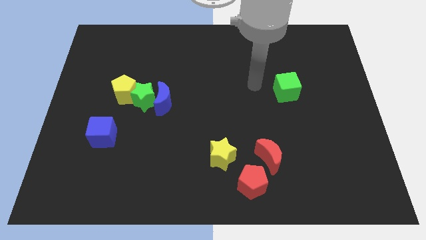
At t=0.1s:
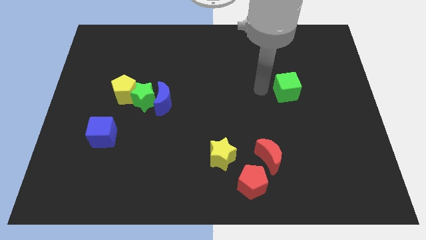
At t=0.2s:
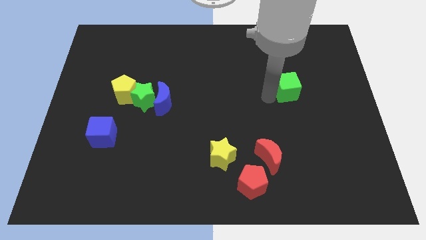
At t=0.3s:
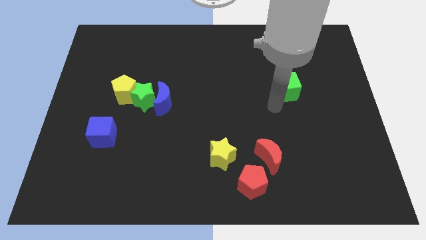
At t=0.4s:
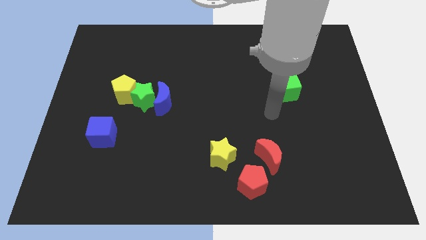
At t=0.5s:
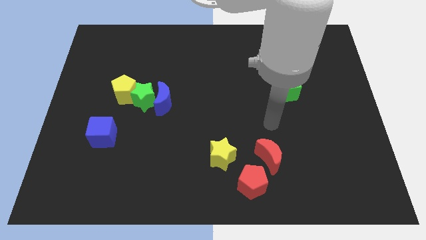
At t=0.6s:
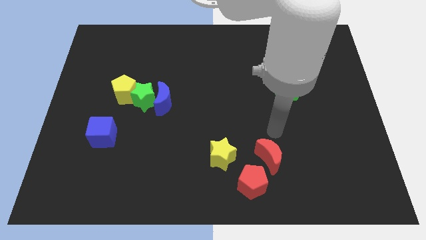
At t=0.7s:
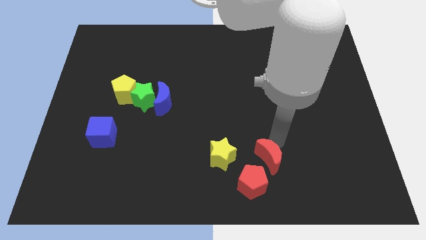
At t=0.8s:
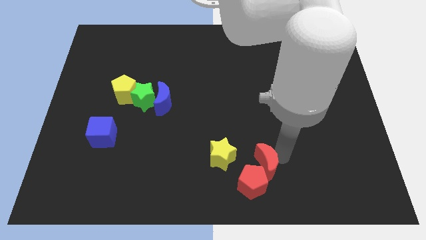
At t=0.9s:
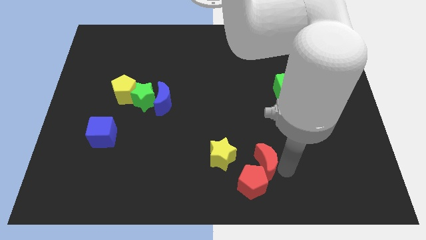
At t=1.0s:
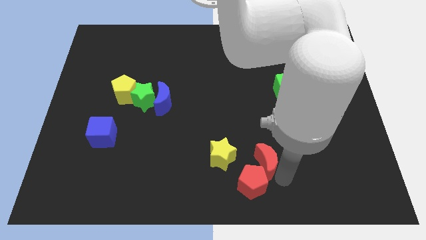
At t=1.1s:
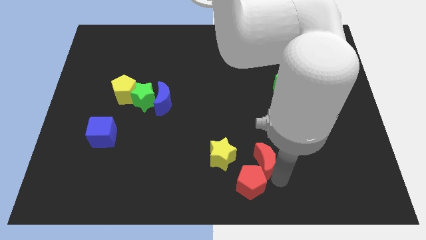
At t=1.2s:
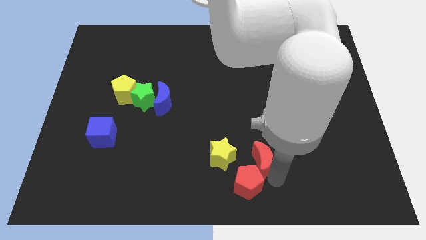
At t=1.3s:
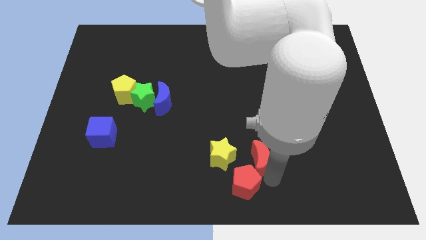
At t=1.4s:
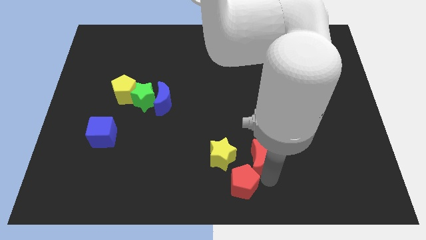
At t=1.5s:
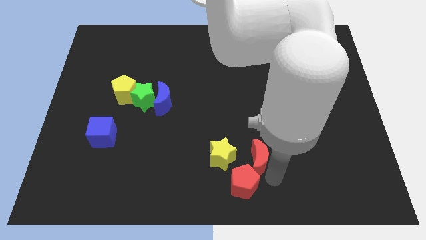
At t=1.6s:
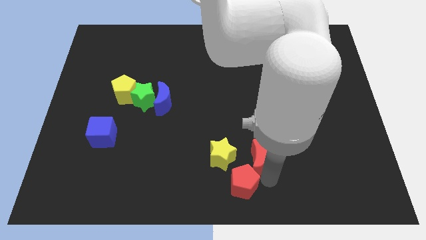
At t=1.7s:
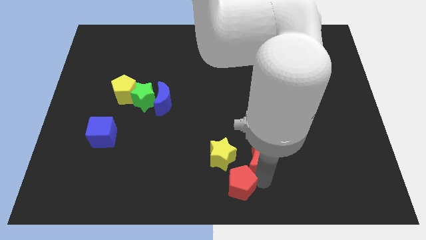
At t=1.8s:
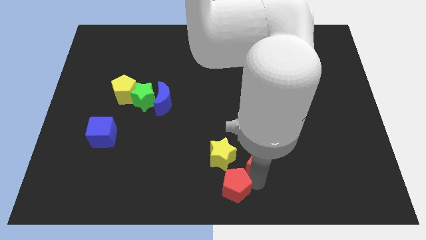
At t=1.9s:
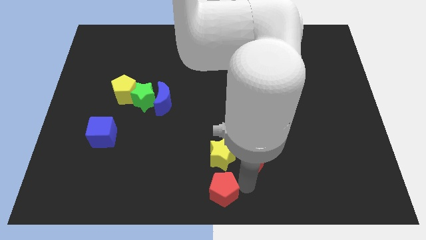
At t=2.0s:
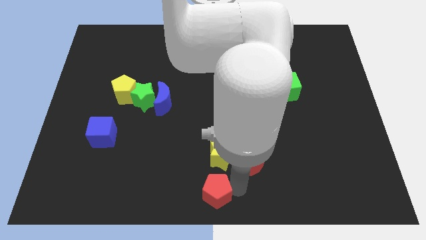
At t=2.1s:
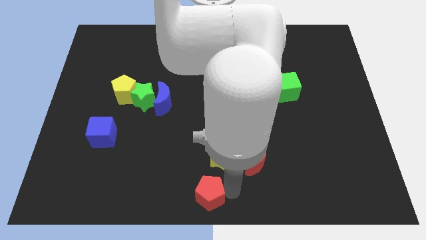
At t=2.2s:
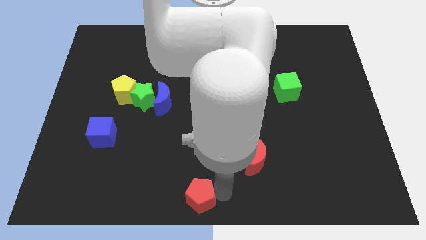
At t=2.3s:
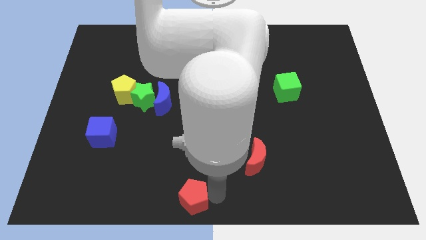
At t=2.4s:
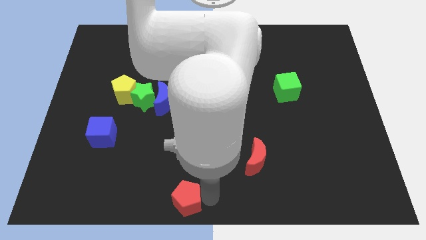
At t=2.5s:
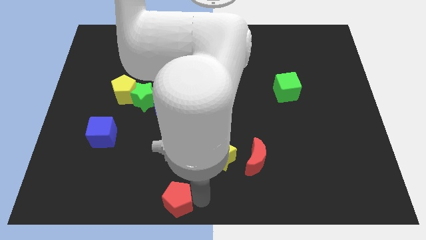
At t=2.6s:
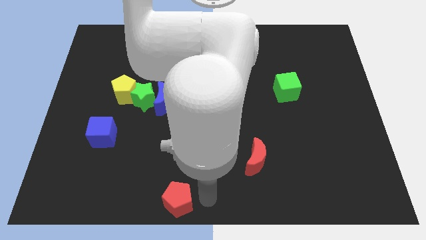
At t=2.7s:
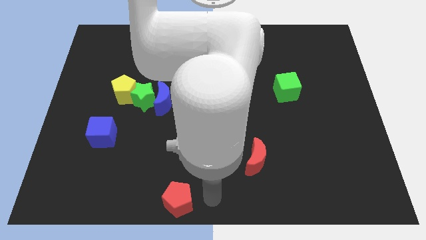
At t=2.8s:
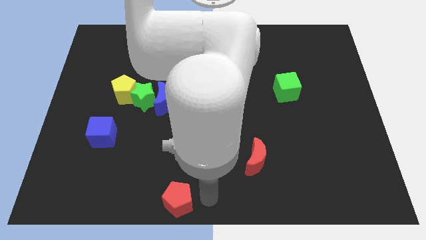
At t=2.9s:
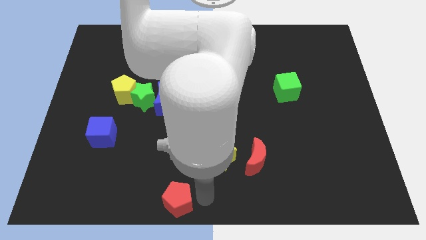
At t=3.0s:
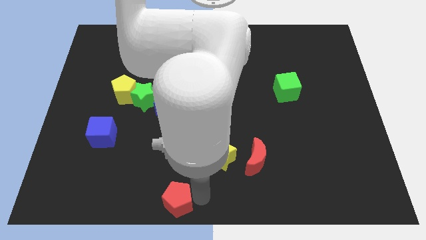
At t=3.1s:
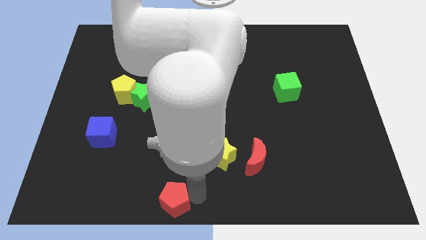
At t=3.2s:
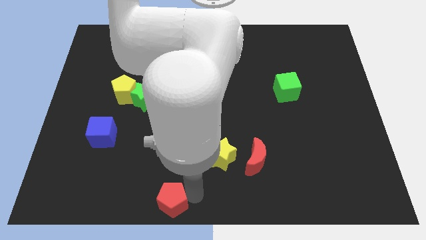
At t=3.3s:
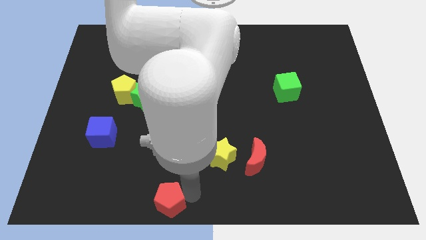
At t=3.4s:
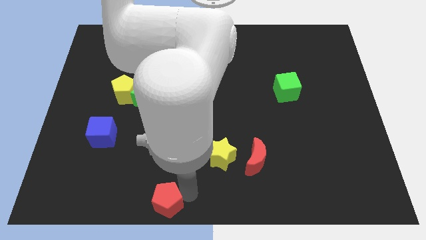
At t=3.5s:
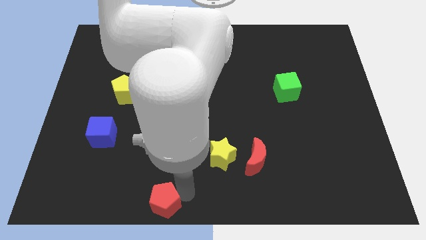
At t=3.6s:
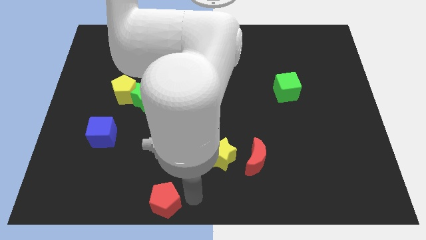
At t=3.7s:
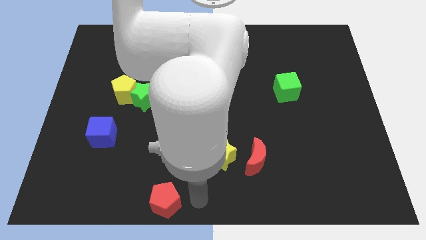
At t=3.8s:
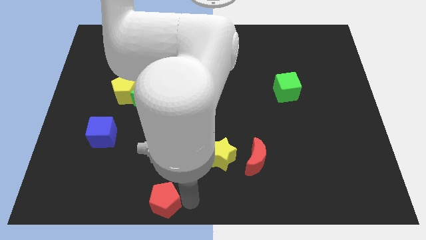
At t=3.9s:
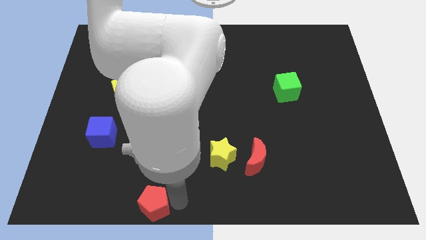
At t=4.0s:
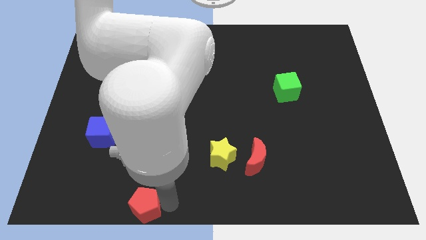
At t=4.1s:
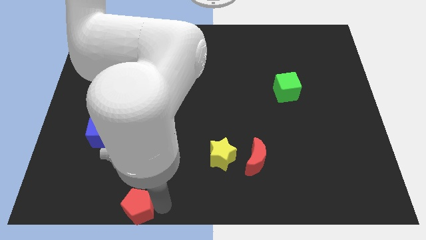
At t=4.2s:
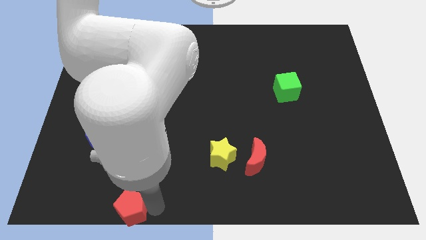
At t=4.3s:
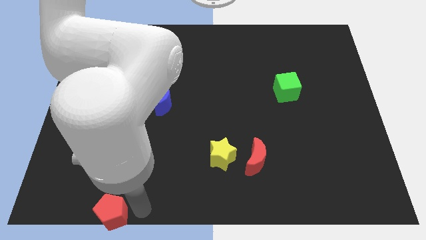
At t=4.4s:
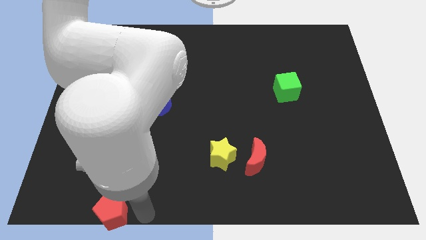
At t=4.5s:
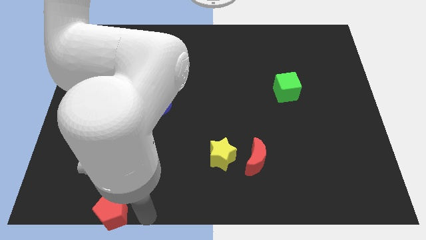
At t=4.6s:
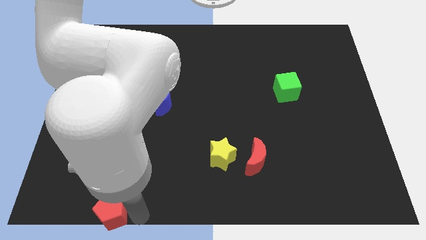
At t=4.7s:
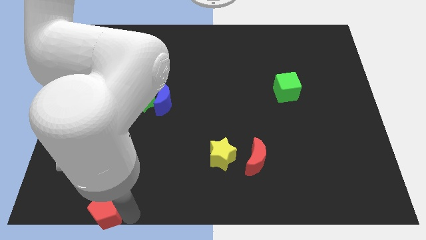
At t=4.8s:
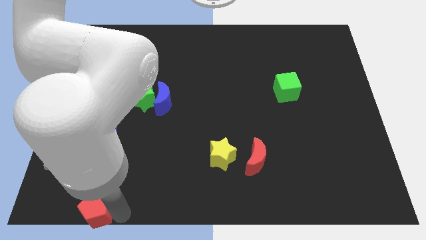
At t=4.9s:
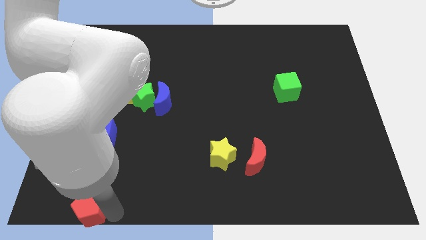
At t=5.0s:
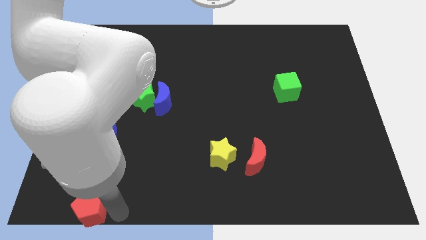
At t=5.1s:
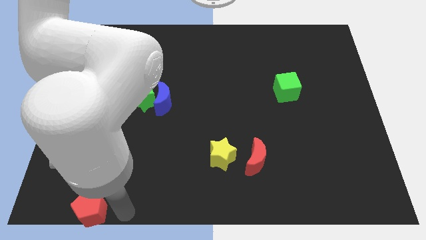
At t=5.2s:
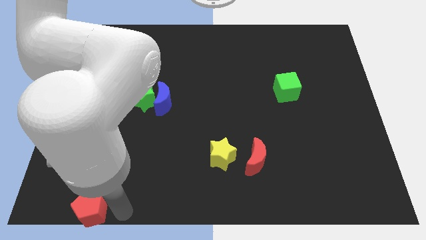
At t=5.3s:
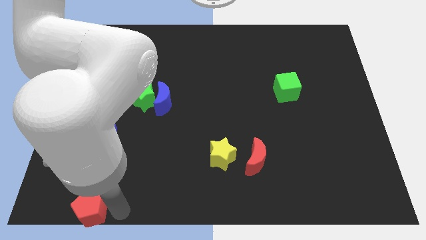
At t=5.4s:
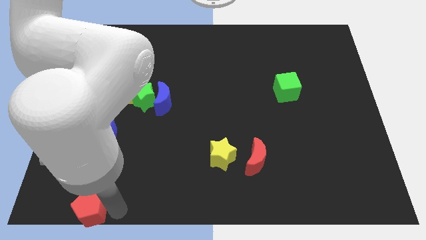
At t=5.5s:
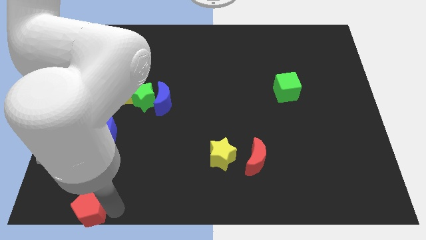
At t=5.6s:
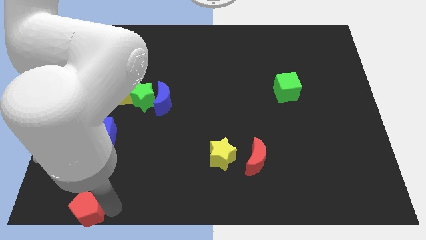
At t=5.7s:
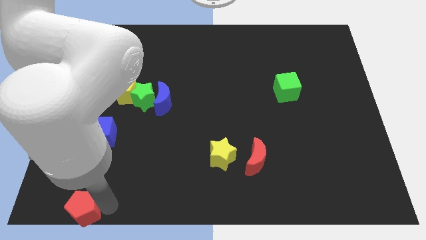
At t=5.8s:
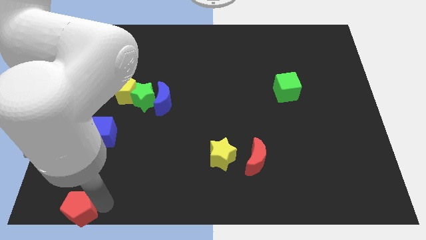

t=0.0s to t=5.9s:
push the red pentagon to the bottom left of the board

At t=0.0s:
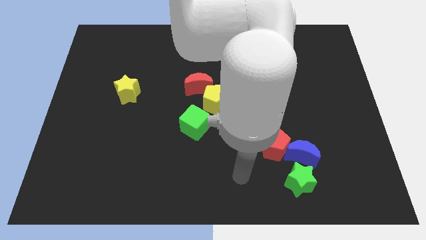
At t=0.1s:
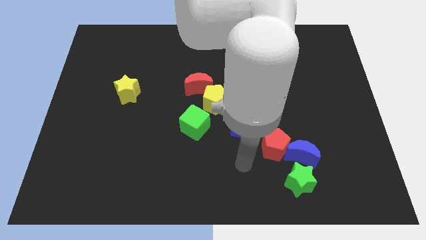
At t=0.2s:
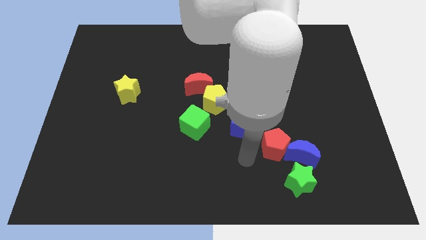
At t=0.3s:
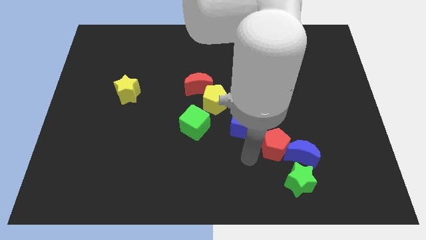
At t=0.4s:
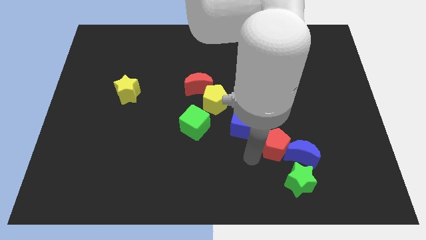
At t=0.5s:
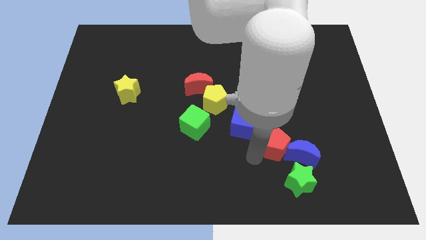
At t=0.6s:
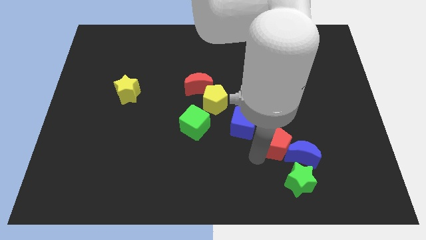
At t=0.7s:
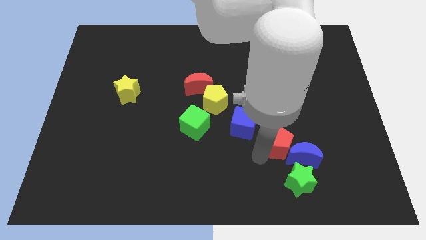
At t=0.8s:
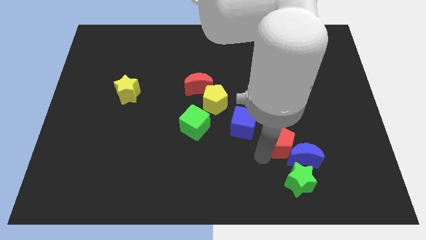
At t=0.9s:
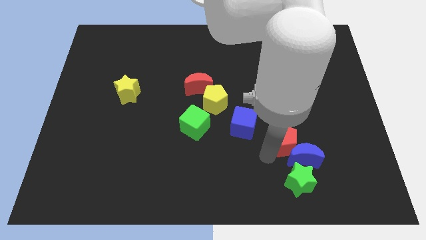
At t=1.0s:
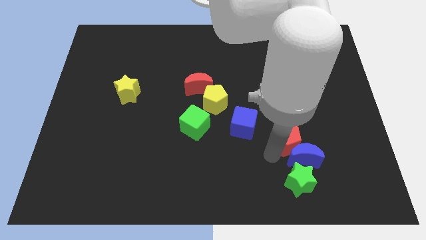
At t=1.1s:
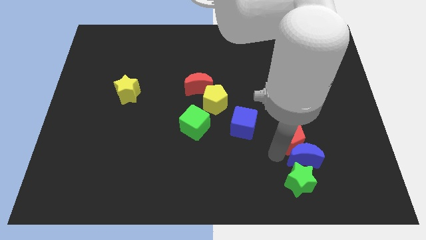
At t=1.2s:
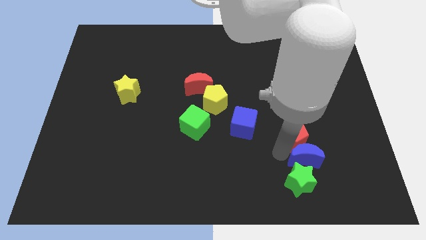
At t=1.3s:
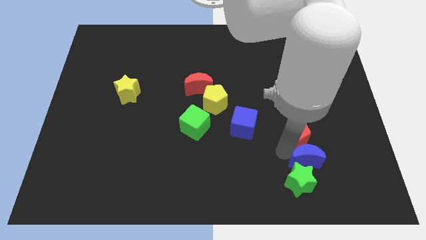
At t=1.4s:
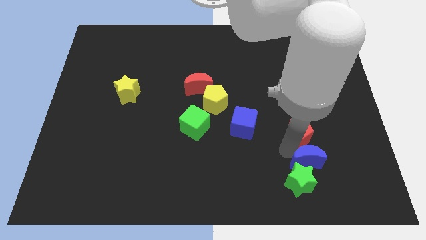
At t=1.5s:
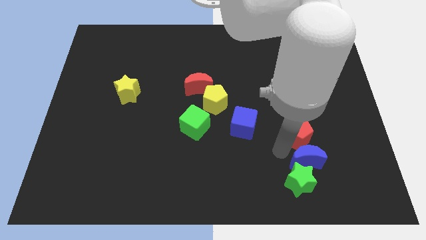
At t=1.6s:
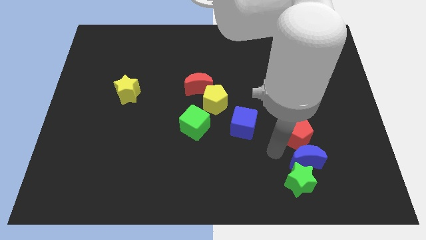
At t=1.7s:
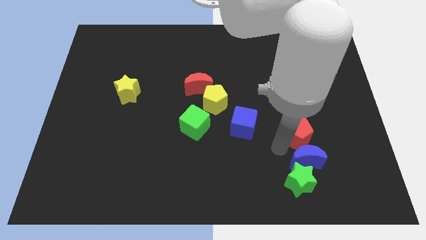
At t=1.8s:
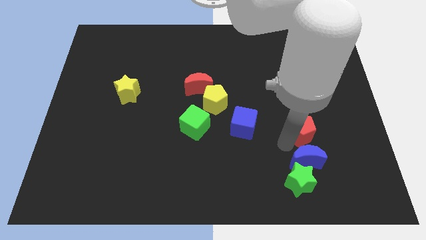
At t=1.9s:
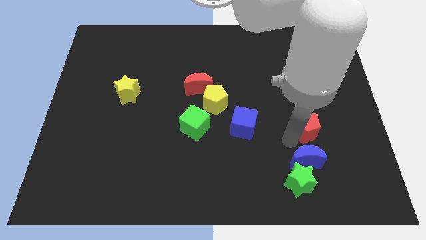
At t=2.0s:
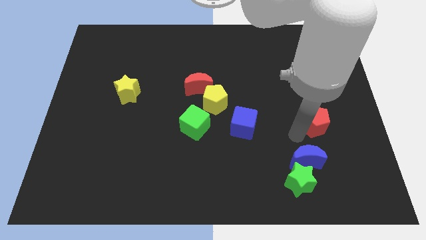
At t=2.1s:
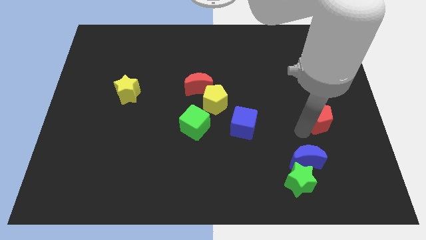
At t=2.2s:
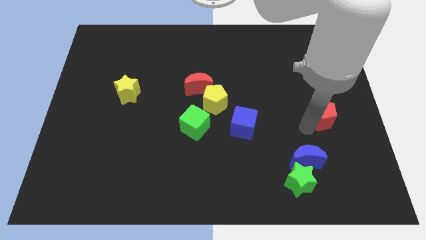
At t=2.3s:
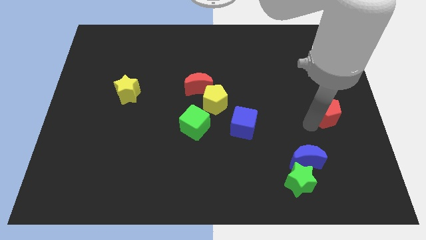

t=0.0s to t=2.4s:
push the red pentagon to the right side of the board
